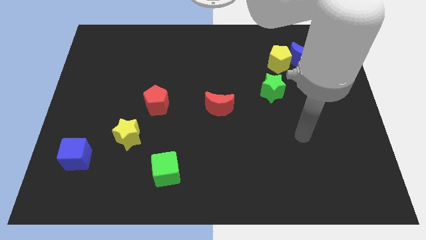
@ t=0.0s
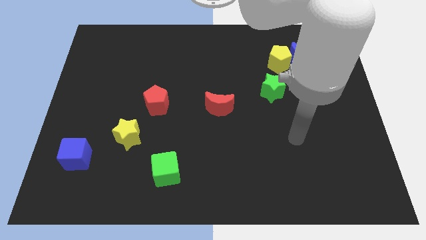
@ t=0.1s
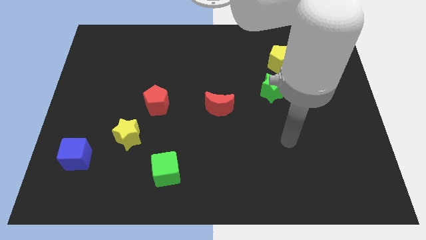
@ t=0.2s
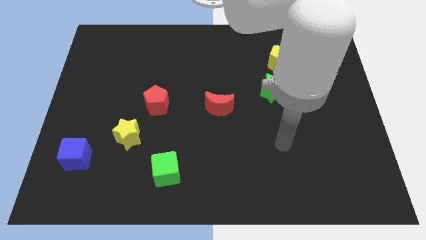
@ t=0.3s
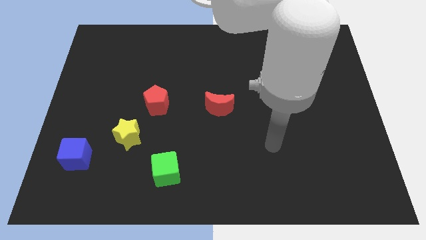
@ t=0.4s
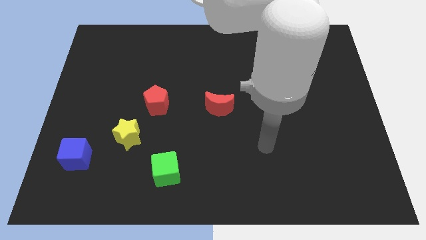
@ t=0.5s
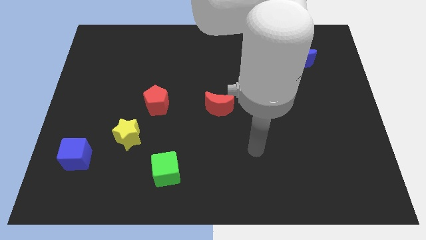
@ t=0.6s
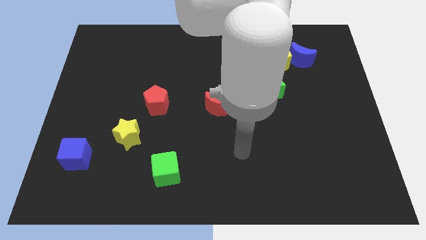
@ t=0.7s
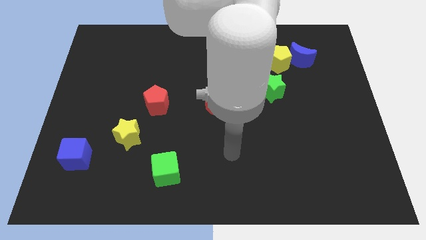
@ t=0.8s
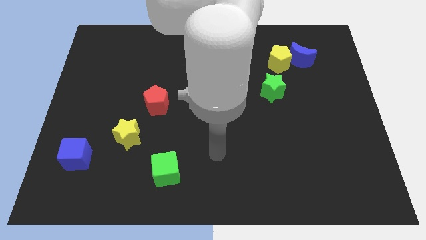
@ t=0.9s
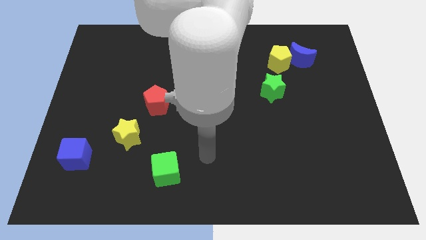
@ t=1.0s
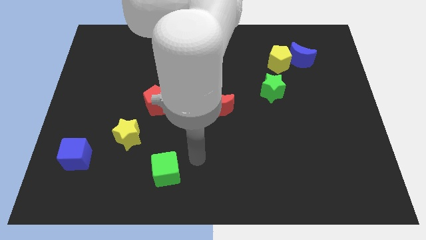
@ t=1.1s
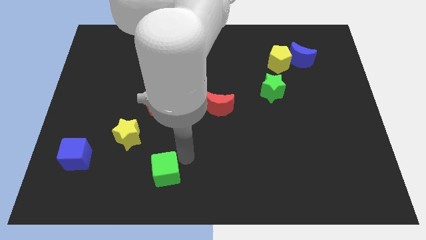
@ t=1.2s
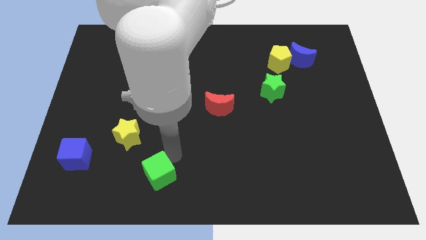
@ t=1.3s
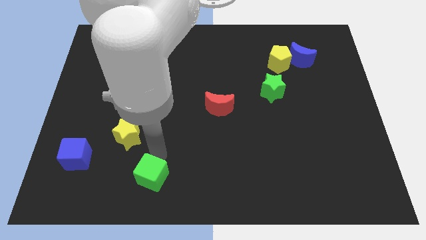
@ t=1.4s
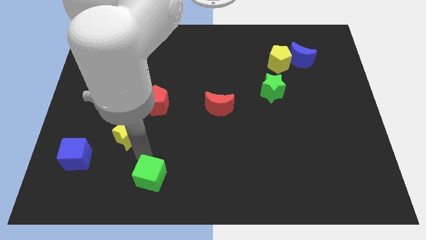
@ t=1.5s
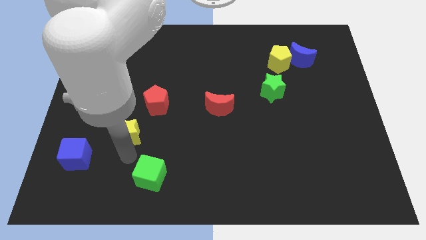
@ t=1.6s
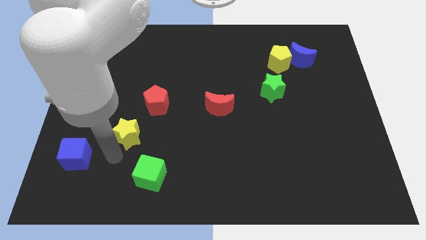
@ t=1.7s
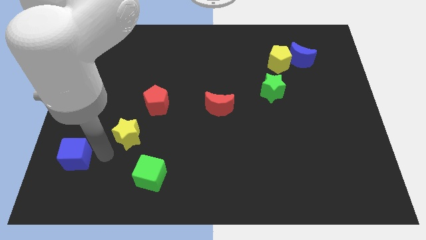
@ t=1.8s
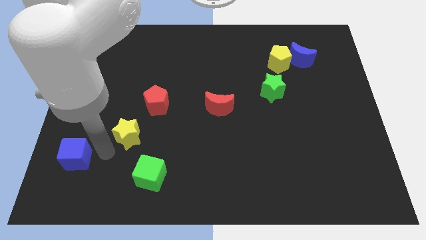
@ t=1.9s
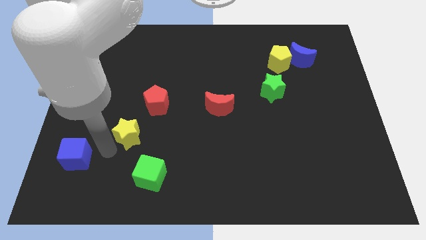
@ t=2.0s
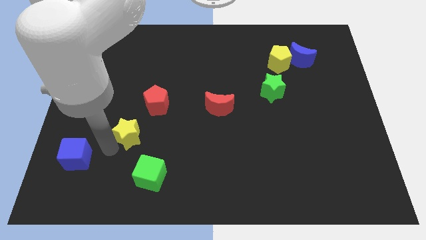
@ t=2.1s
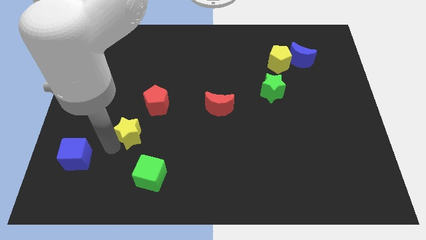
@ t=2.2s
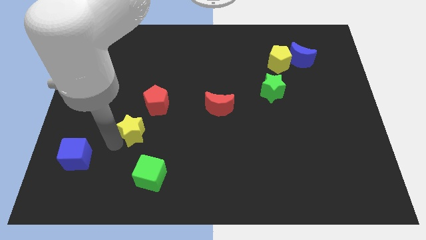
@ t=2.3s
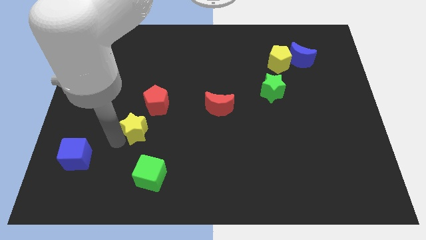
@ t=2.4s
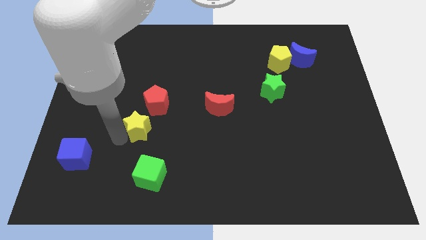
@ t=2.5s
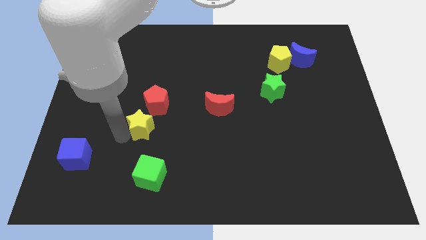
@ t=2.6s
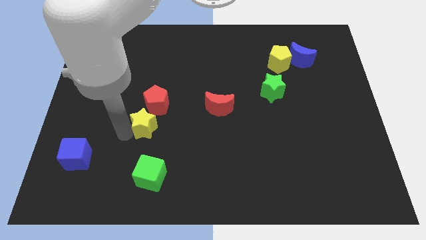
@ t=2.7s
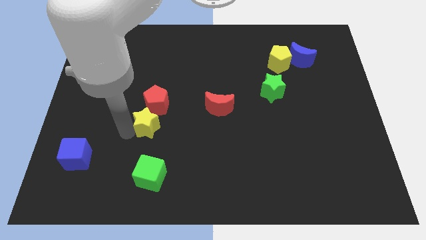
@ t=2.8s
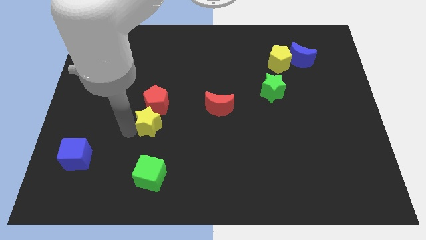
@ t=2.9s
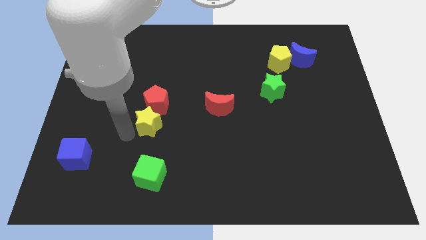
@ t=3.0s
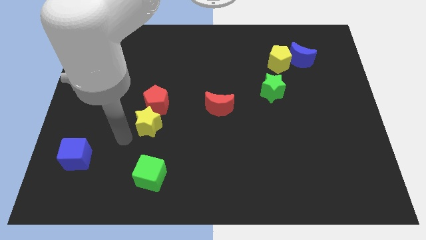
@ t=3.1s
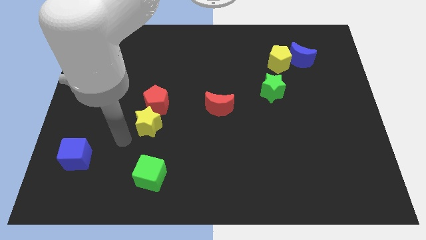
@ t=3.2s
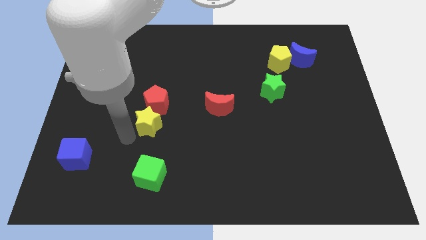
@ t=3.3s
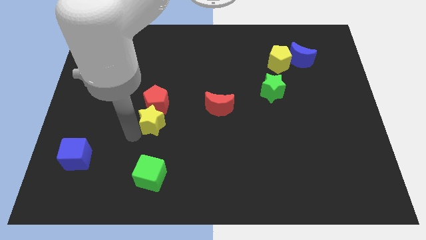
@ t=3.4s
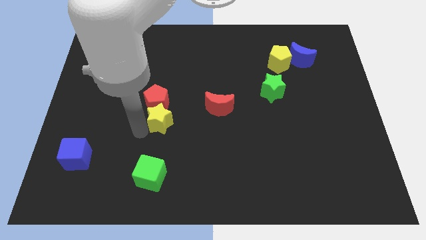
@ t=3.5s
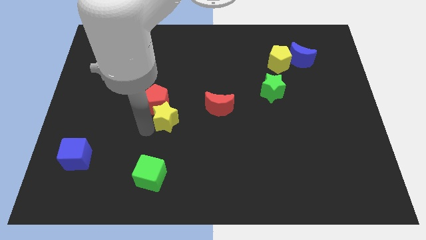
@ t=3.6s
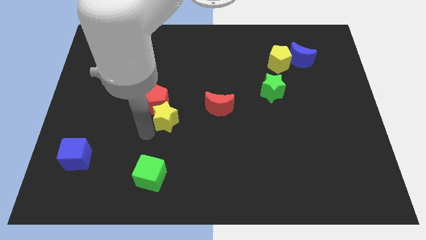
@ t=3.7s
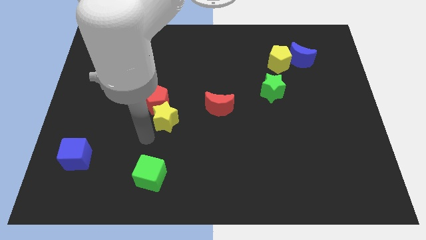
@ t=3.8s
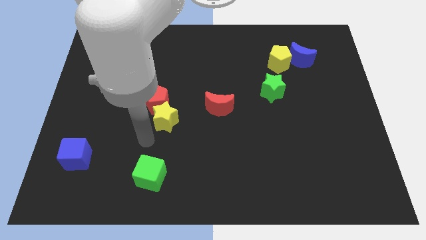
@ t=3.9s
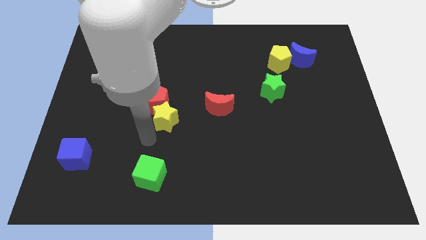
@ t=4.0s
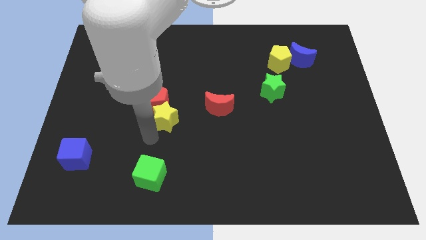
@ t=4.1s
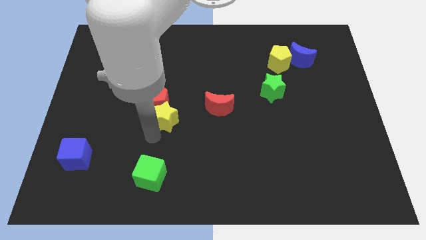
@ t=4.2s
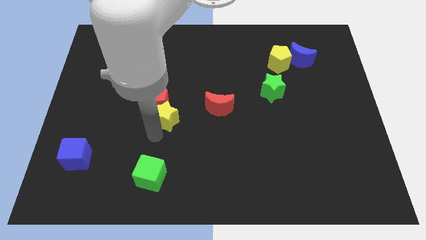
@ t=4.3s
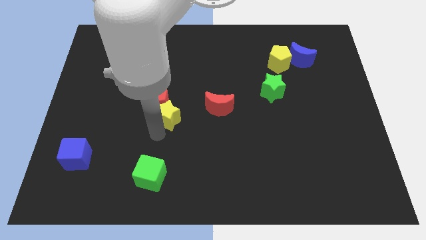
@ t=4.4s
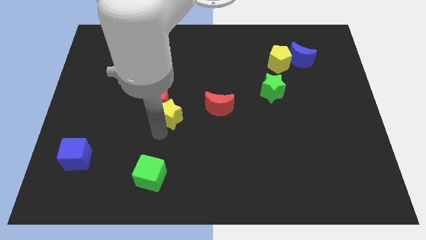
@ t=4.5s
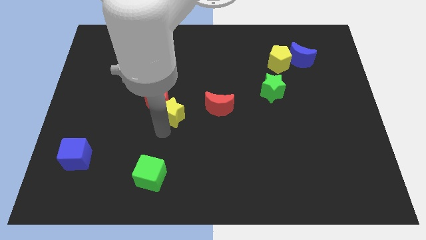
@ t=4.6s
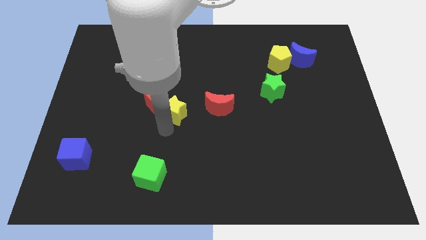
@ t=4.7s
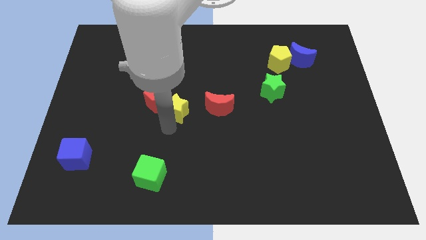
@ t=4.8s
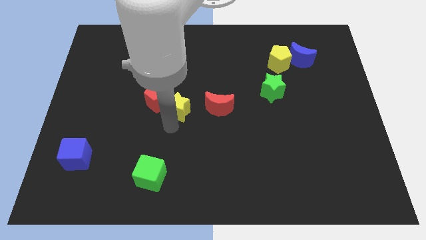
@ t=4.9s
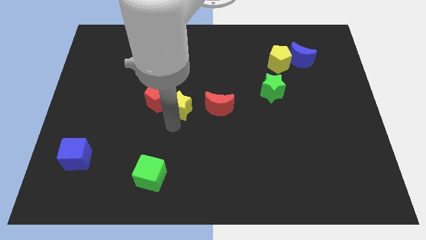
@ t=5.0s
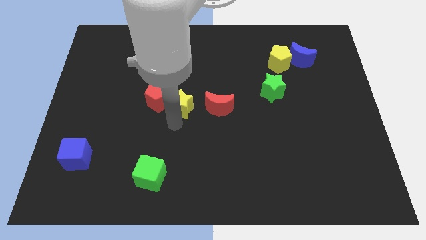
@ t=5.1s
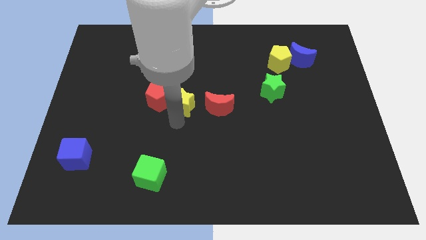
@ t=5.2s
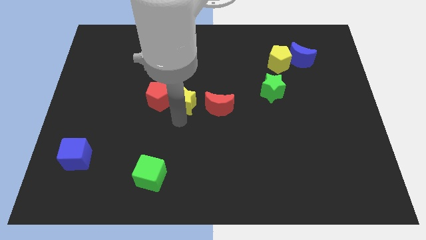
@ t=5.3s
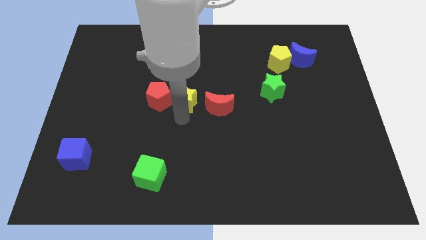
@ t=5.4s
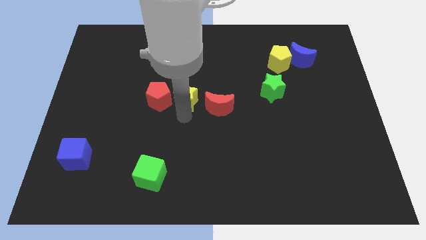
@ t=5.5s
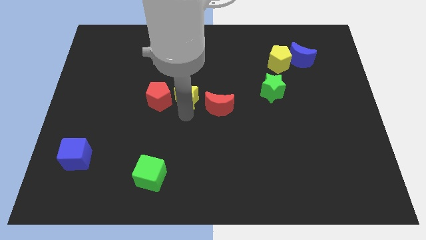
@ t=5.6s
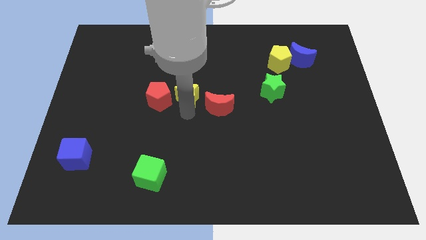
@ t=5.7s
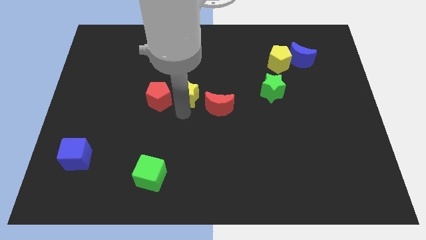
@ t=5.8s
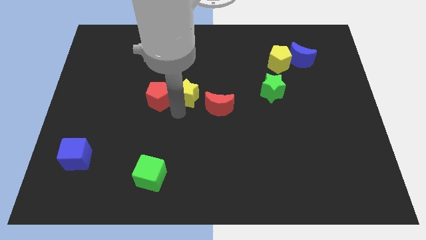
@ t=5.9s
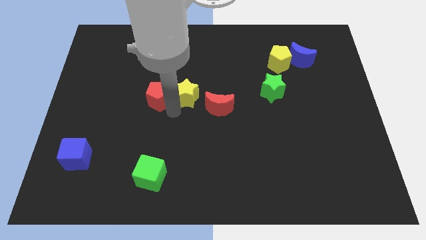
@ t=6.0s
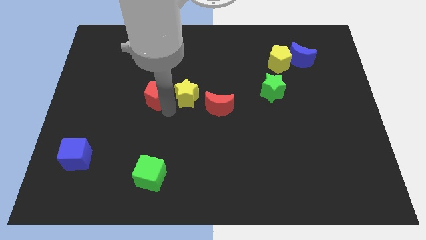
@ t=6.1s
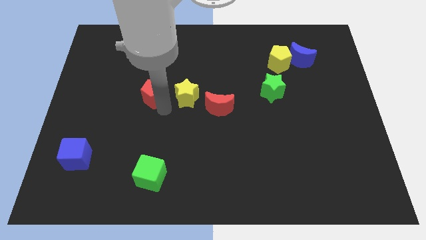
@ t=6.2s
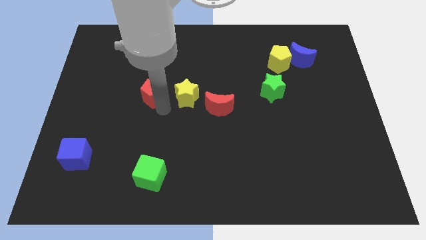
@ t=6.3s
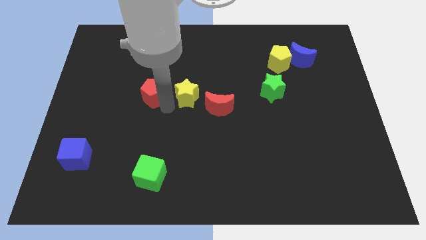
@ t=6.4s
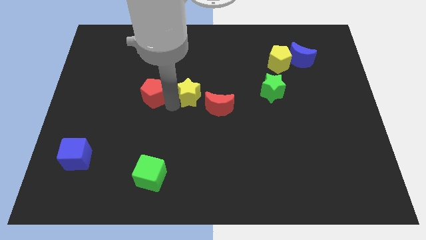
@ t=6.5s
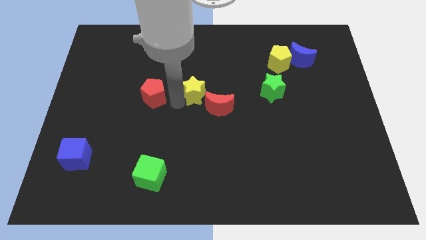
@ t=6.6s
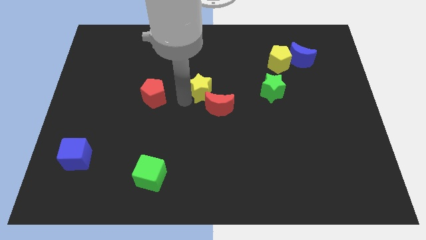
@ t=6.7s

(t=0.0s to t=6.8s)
move the yellow star diagonally upwards and right

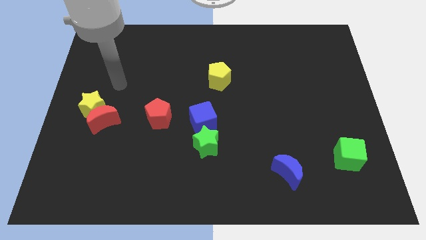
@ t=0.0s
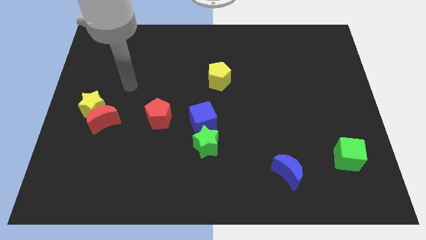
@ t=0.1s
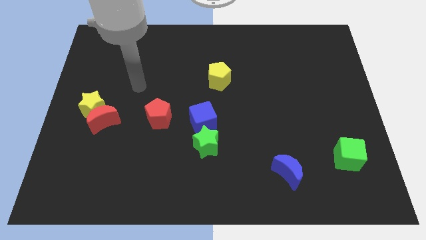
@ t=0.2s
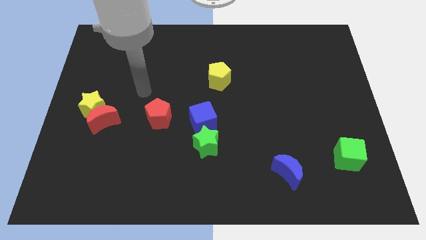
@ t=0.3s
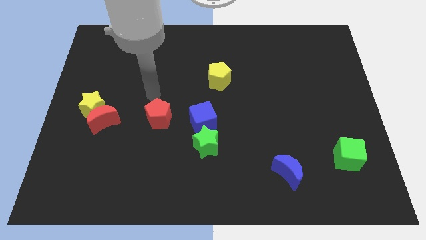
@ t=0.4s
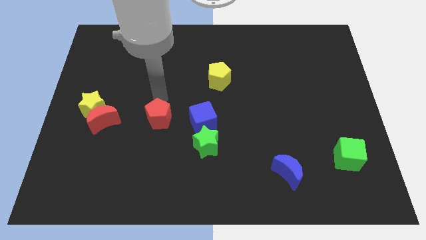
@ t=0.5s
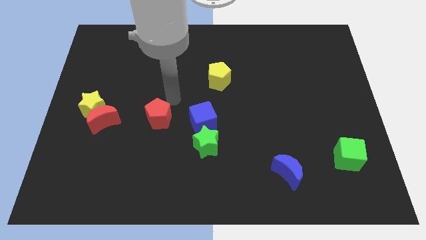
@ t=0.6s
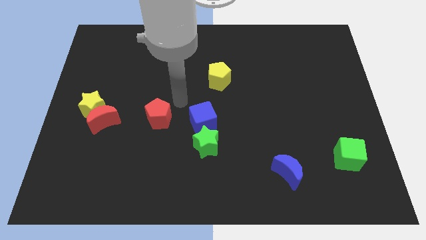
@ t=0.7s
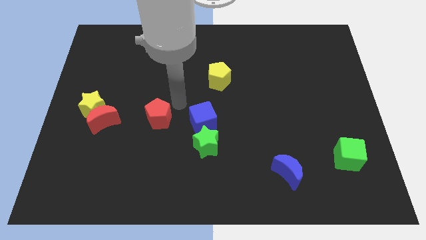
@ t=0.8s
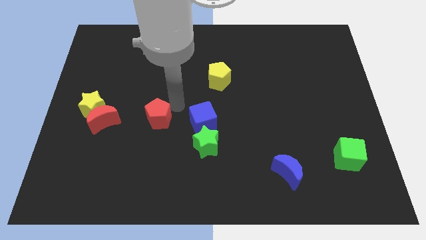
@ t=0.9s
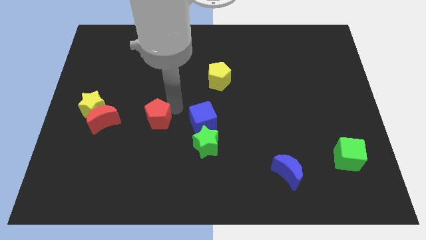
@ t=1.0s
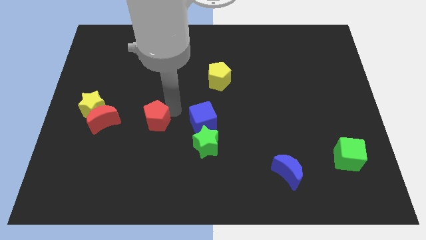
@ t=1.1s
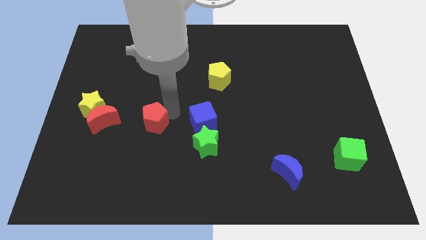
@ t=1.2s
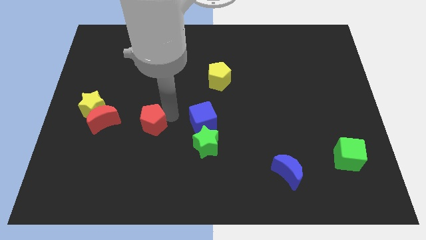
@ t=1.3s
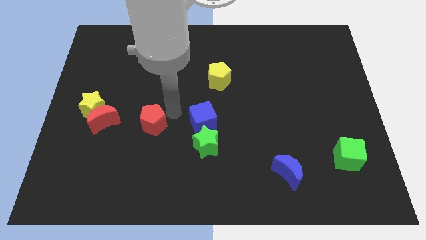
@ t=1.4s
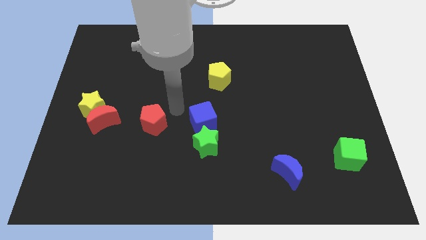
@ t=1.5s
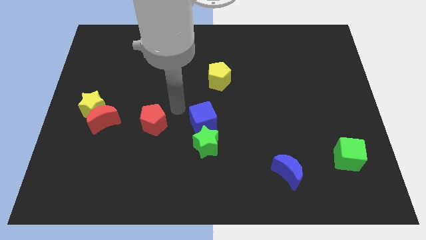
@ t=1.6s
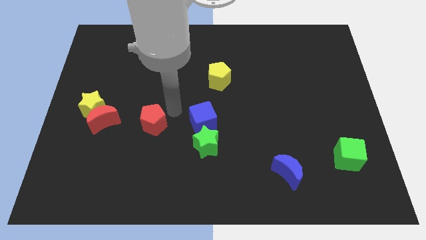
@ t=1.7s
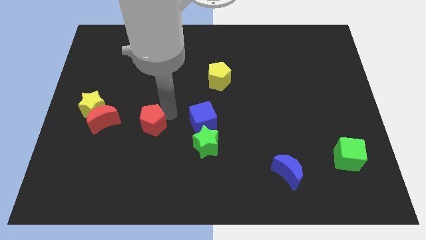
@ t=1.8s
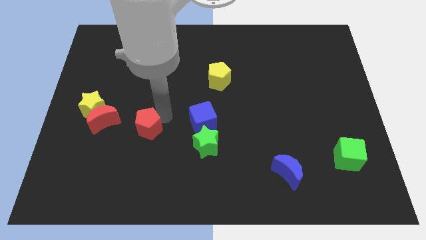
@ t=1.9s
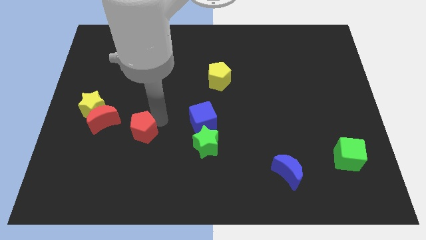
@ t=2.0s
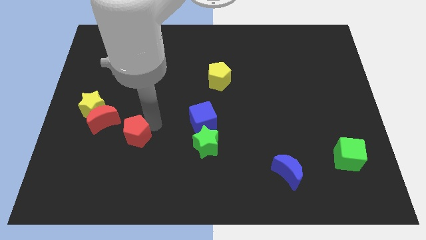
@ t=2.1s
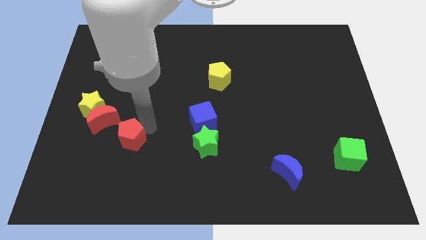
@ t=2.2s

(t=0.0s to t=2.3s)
push the red pentagon diagonally downwards and to the left a bit
